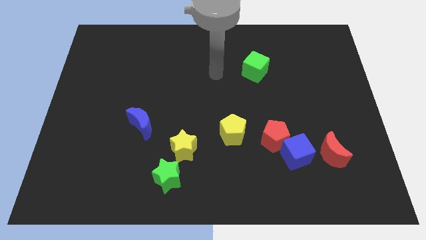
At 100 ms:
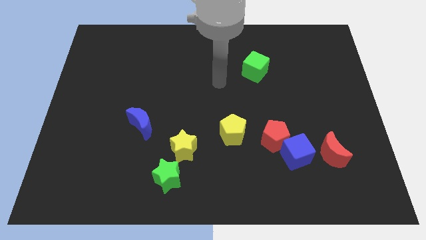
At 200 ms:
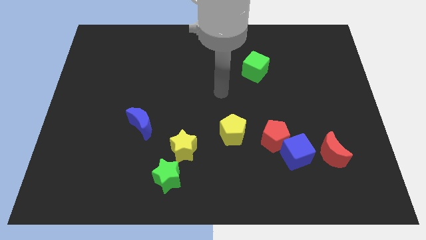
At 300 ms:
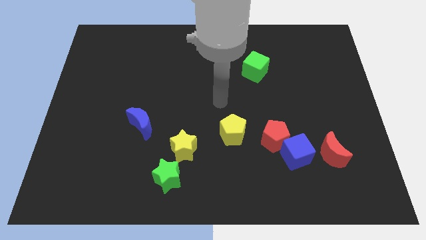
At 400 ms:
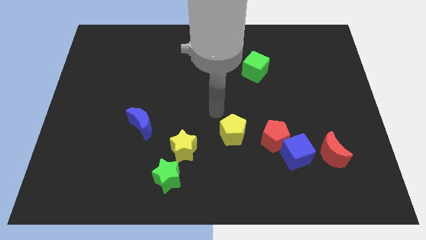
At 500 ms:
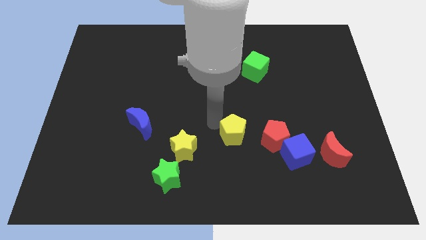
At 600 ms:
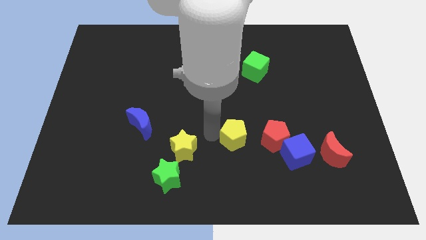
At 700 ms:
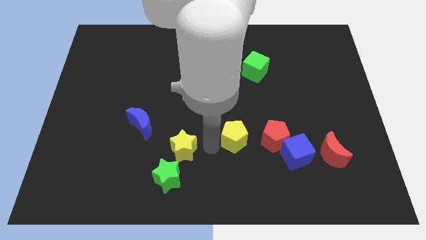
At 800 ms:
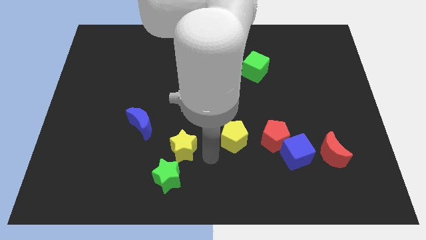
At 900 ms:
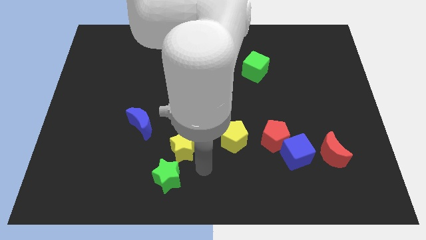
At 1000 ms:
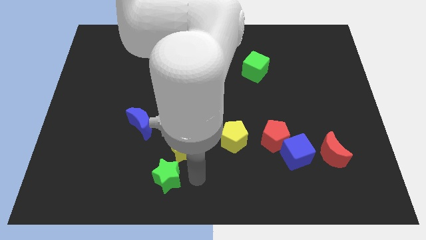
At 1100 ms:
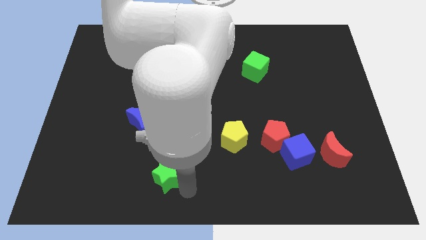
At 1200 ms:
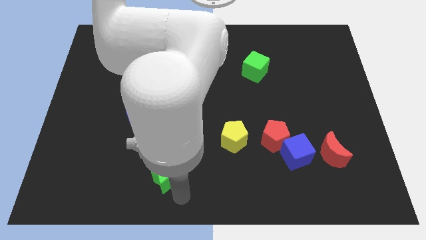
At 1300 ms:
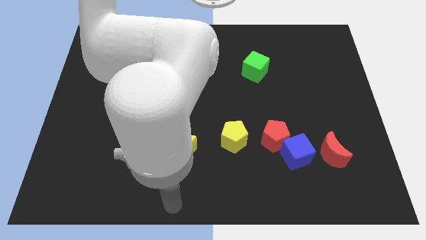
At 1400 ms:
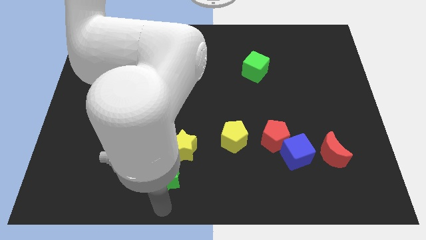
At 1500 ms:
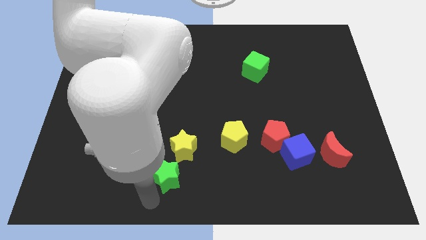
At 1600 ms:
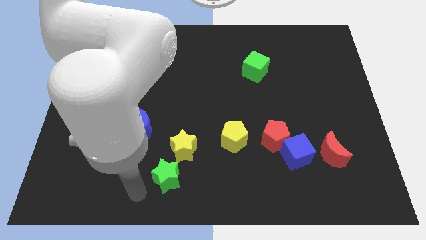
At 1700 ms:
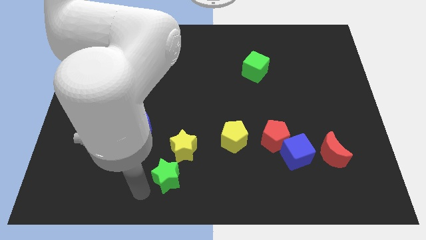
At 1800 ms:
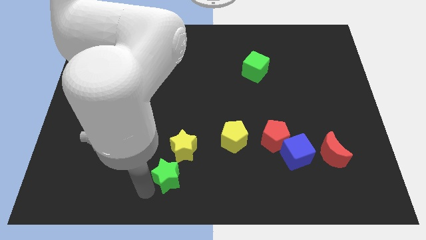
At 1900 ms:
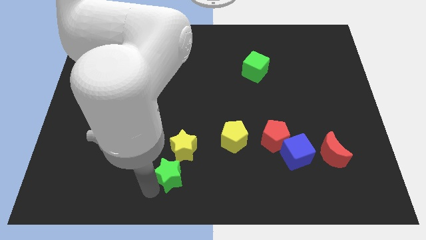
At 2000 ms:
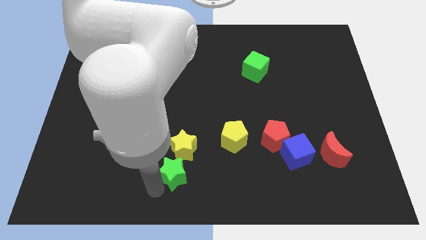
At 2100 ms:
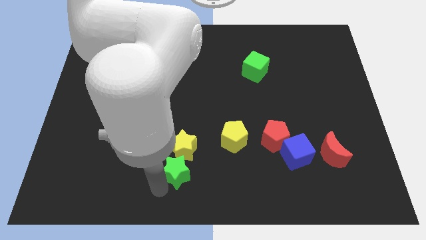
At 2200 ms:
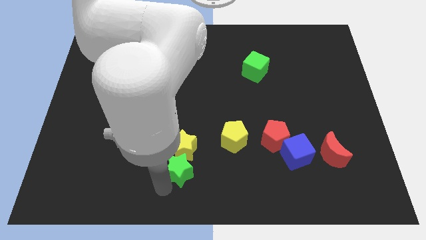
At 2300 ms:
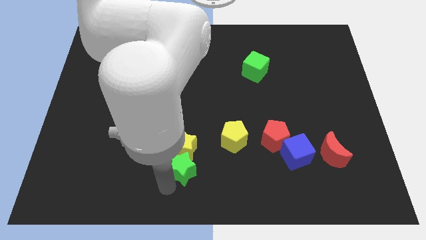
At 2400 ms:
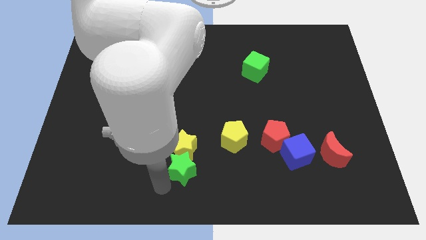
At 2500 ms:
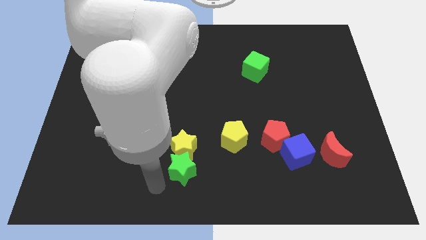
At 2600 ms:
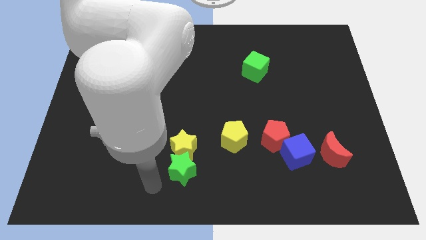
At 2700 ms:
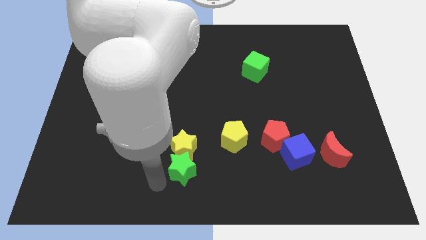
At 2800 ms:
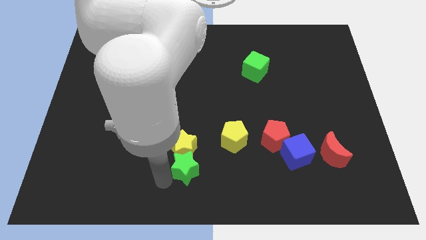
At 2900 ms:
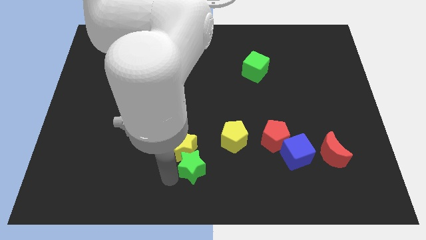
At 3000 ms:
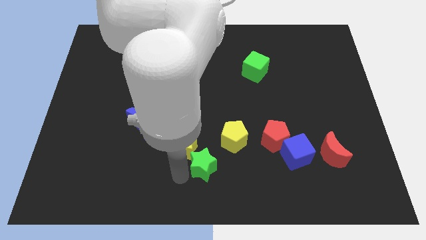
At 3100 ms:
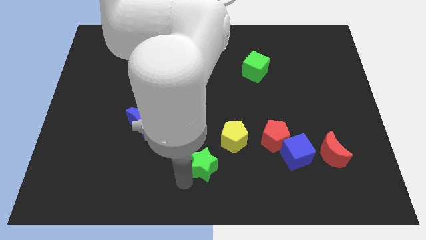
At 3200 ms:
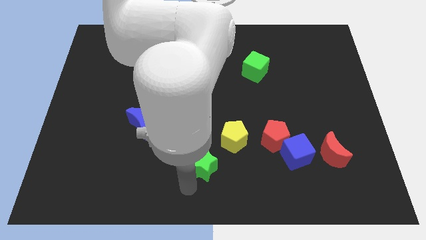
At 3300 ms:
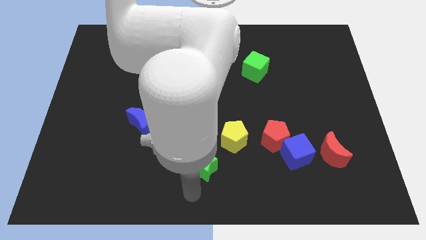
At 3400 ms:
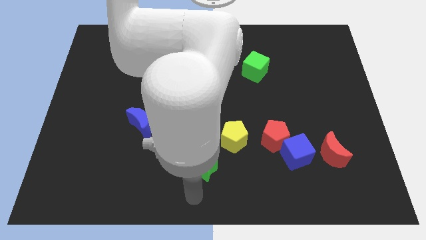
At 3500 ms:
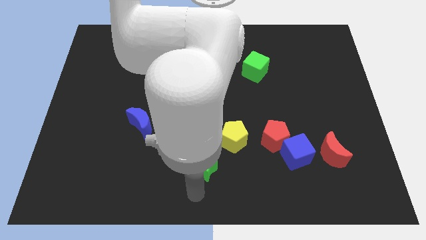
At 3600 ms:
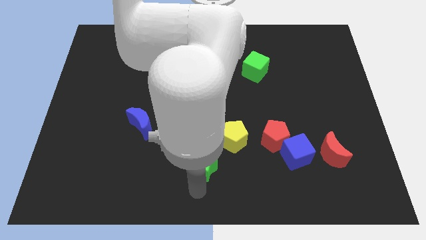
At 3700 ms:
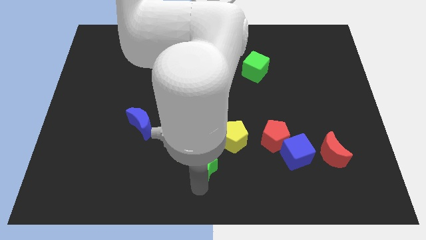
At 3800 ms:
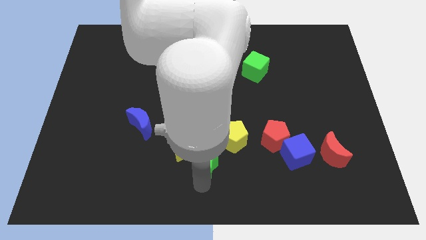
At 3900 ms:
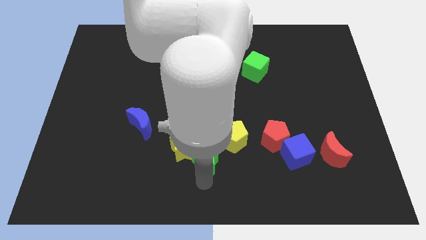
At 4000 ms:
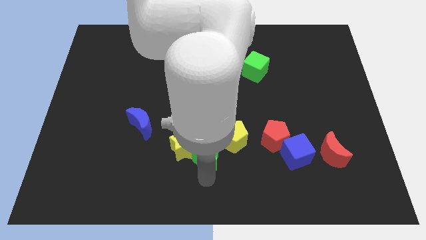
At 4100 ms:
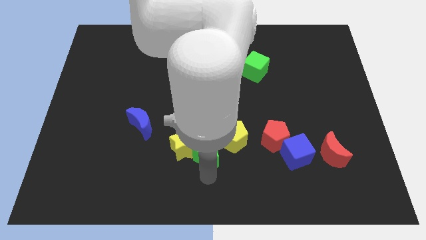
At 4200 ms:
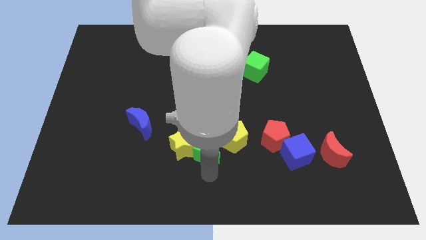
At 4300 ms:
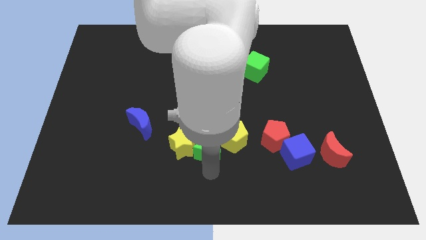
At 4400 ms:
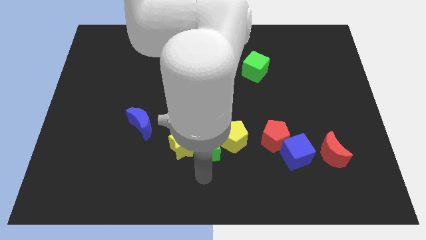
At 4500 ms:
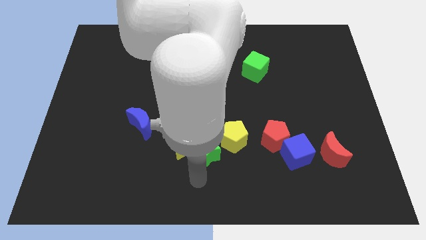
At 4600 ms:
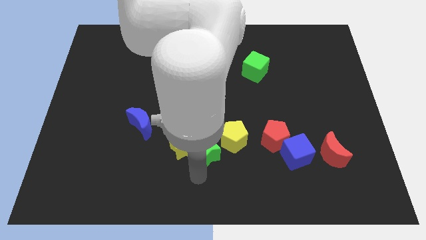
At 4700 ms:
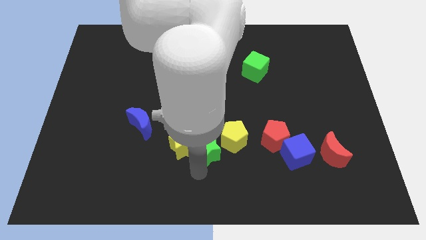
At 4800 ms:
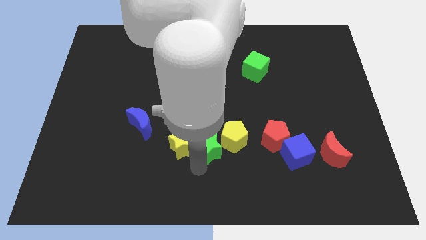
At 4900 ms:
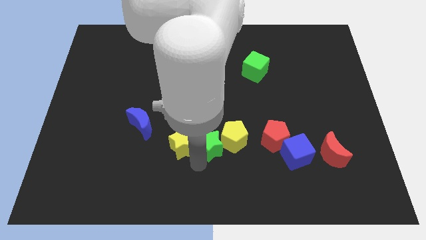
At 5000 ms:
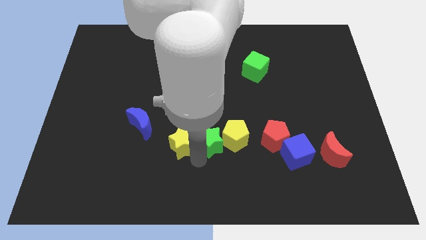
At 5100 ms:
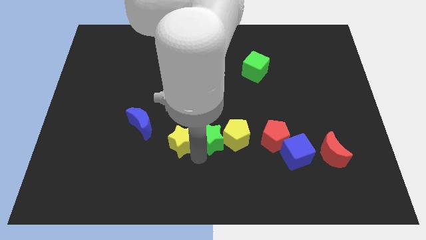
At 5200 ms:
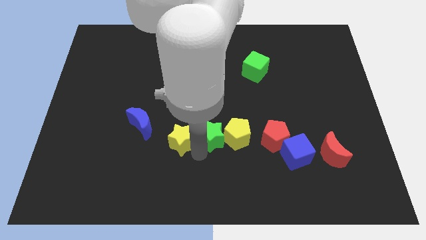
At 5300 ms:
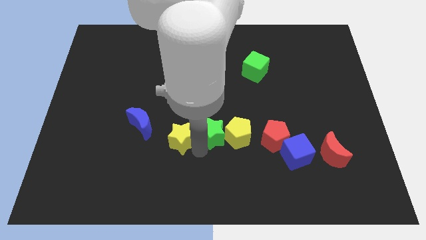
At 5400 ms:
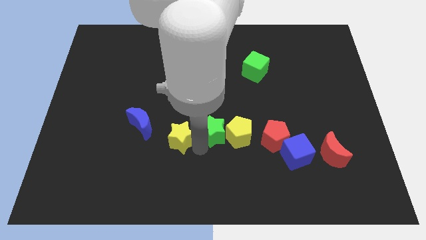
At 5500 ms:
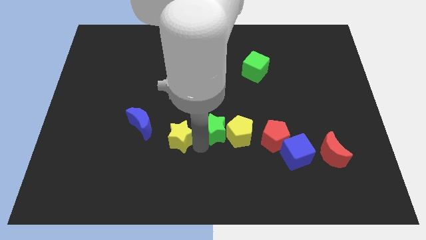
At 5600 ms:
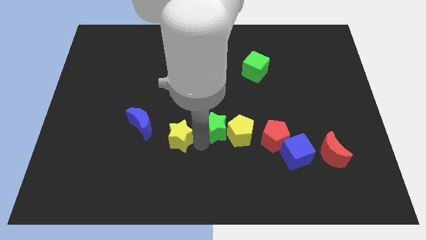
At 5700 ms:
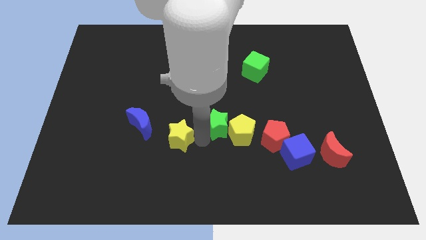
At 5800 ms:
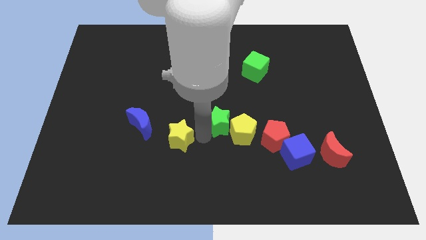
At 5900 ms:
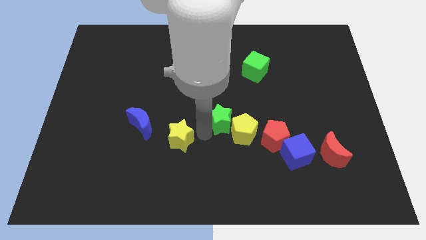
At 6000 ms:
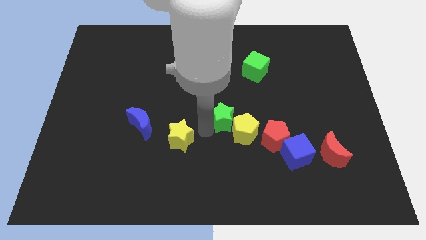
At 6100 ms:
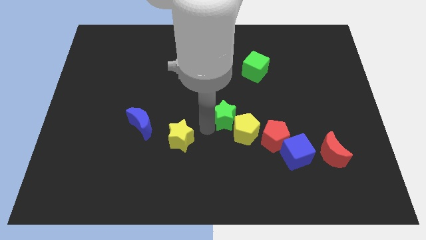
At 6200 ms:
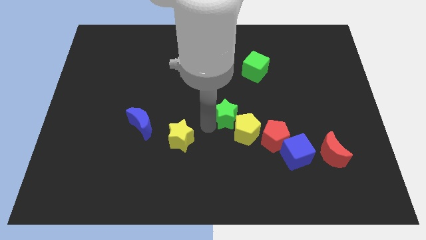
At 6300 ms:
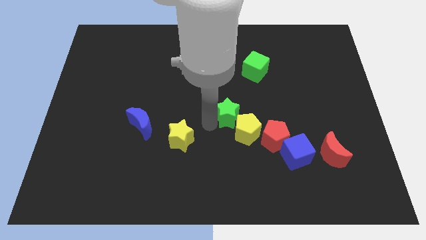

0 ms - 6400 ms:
push the green star upwards and then right

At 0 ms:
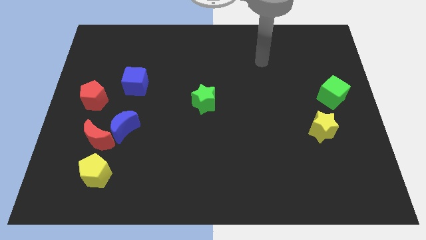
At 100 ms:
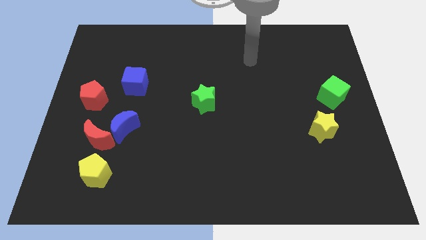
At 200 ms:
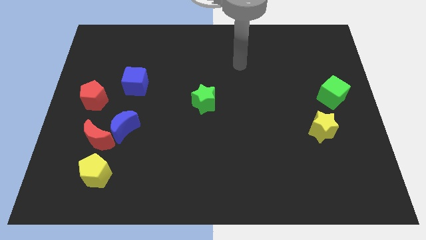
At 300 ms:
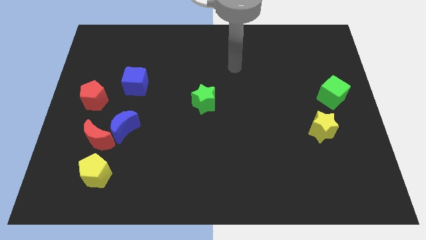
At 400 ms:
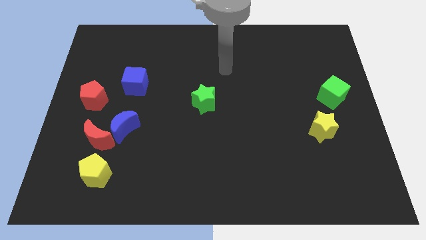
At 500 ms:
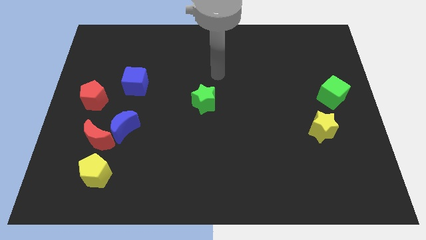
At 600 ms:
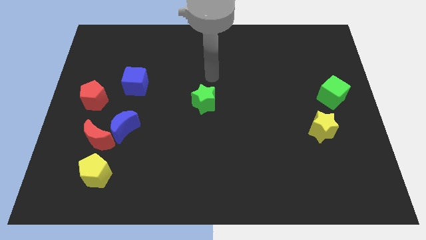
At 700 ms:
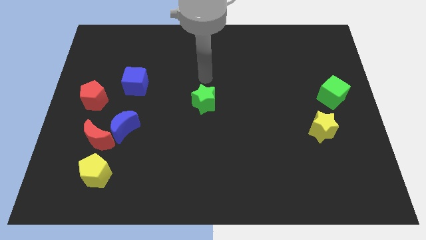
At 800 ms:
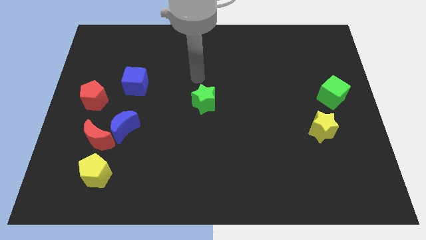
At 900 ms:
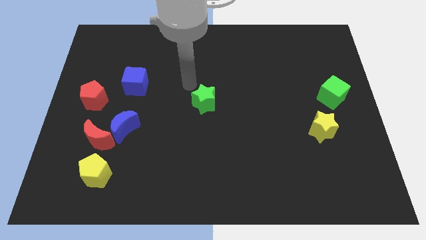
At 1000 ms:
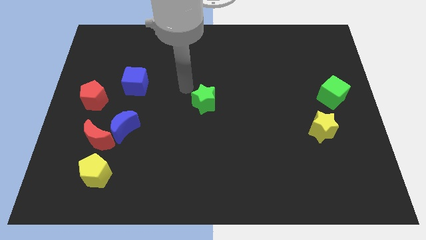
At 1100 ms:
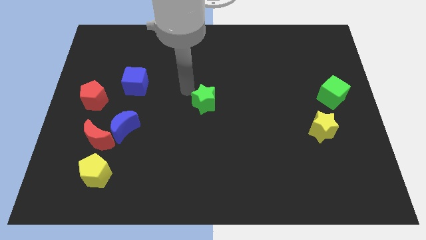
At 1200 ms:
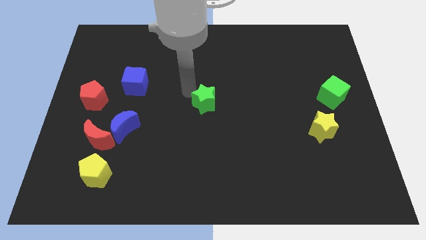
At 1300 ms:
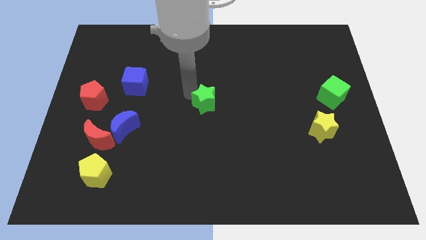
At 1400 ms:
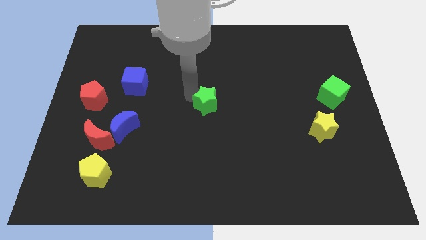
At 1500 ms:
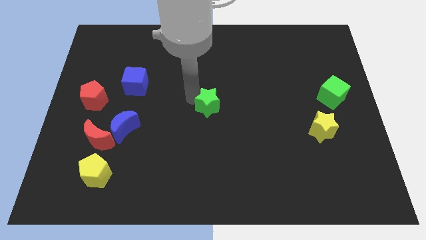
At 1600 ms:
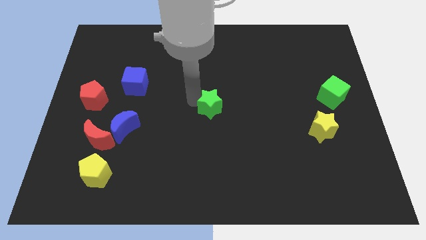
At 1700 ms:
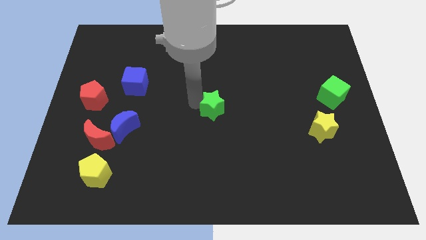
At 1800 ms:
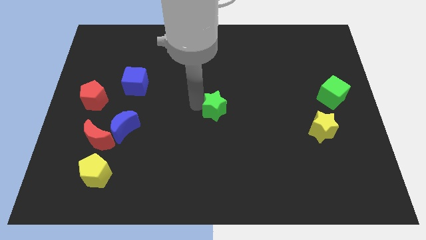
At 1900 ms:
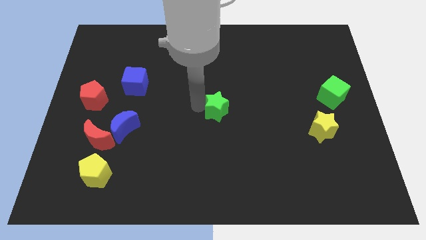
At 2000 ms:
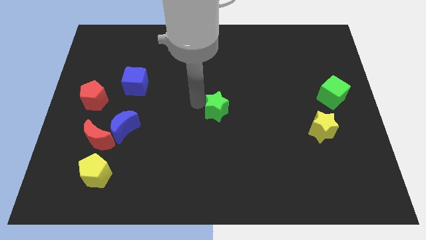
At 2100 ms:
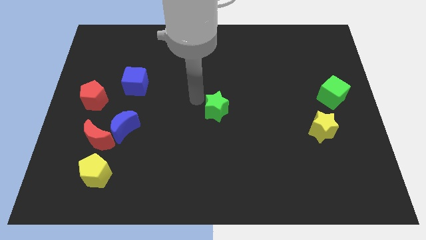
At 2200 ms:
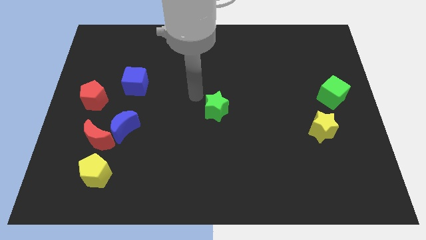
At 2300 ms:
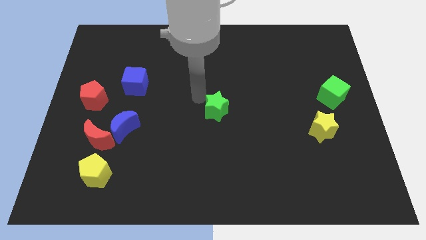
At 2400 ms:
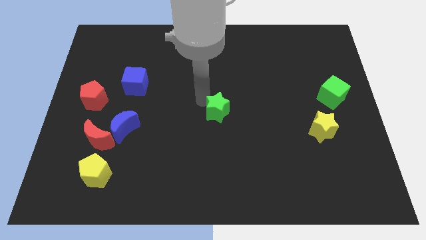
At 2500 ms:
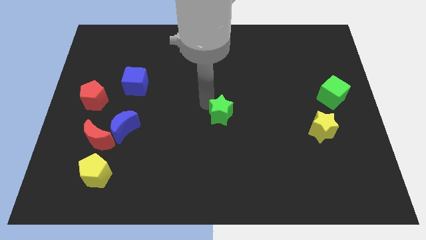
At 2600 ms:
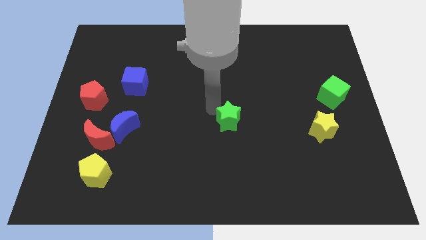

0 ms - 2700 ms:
move the green star slightly diagonally down and right
